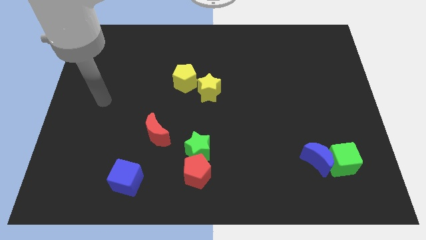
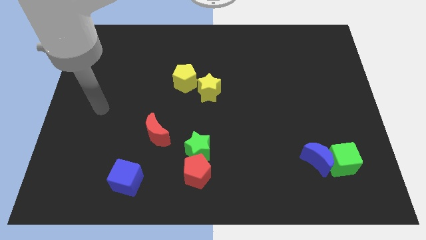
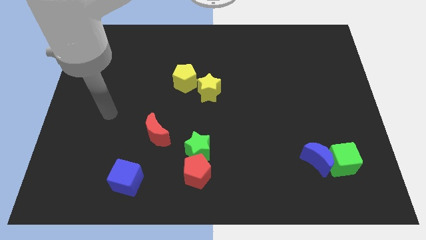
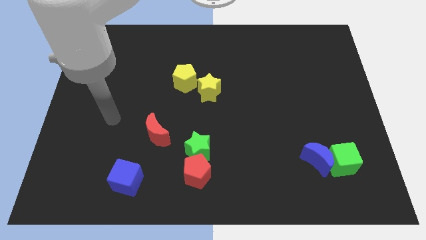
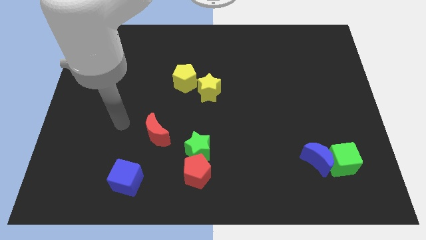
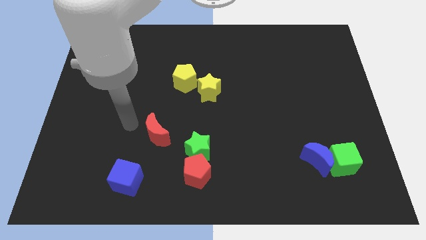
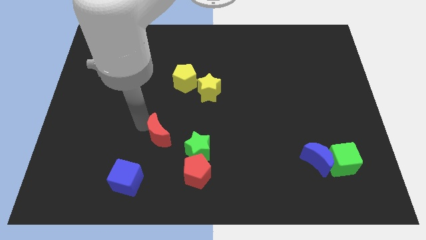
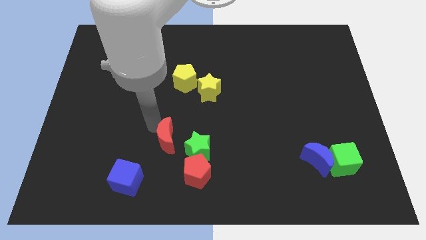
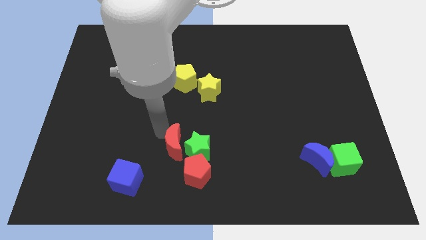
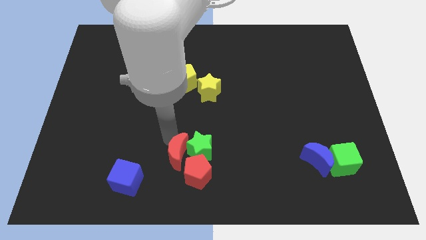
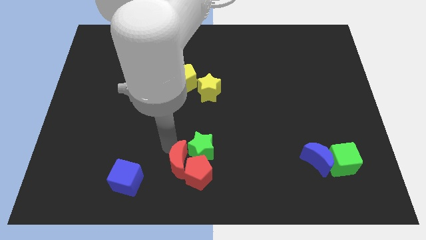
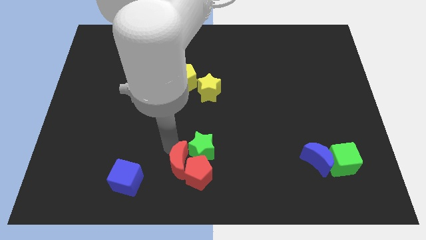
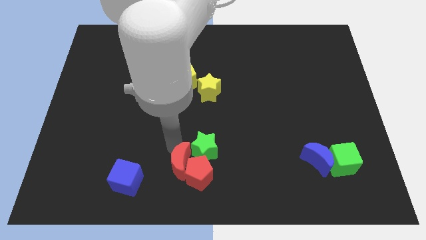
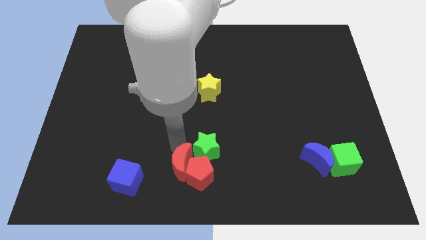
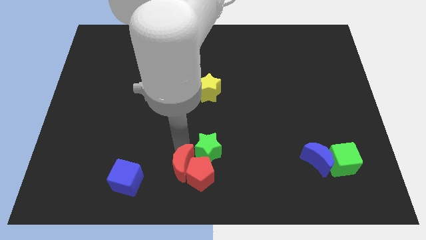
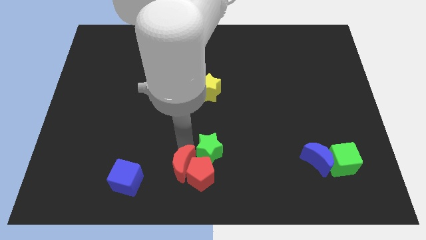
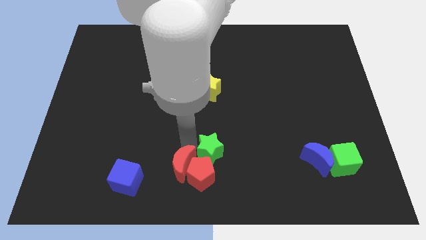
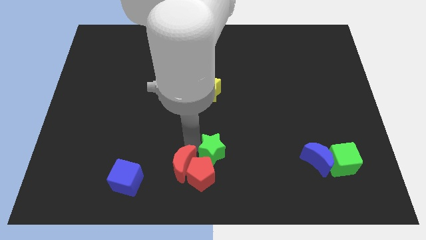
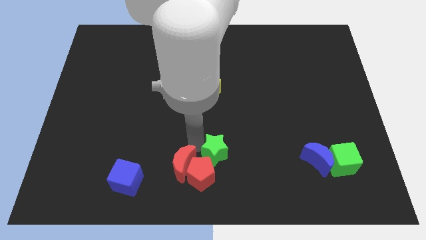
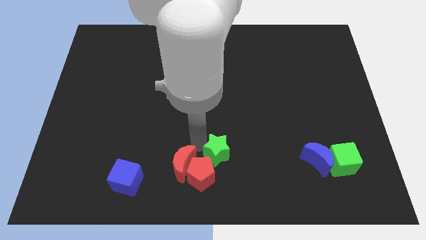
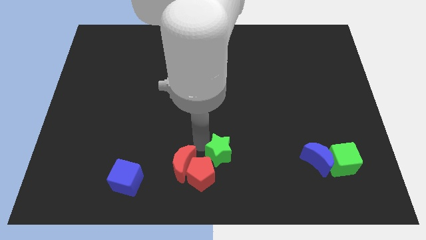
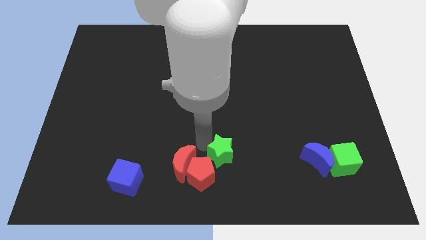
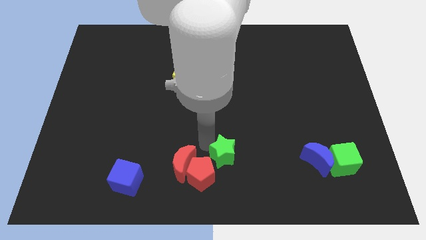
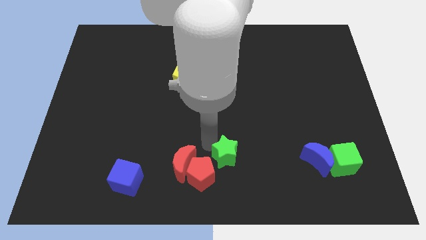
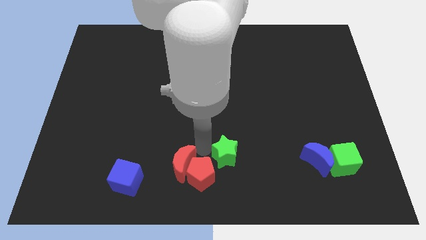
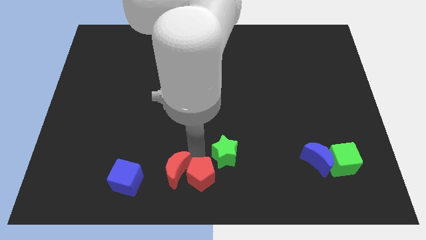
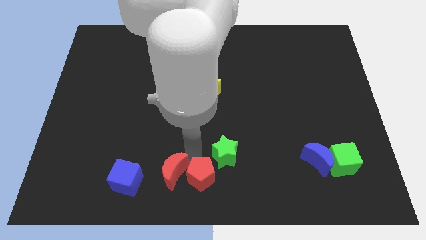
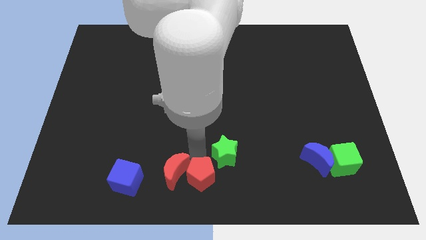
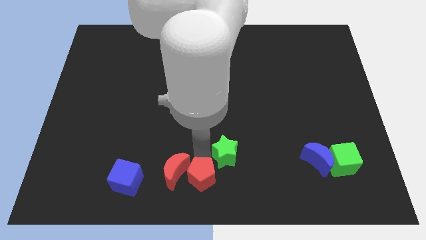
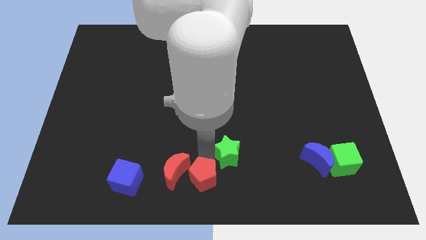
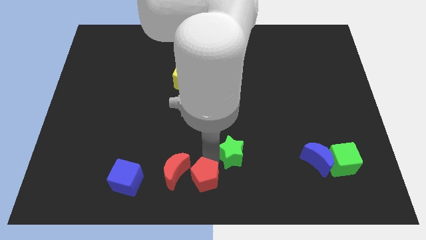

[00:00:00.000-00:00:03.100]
push the green star a bit to the right

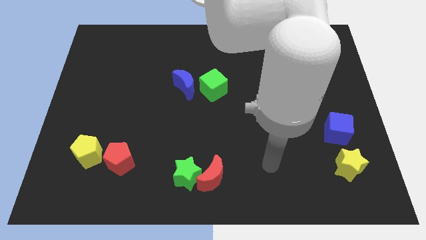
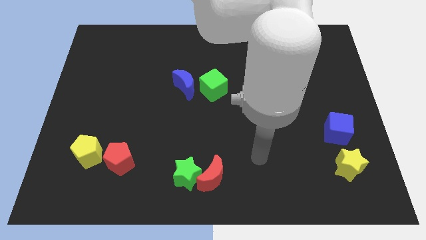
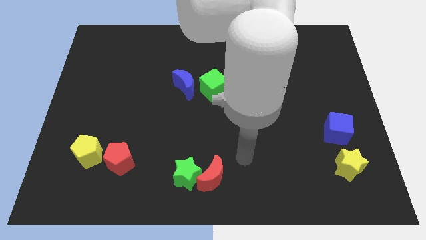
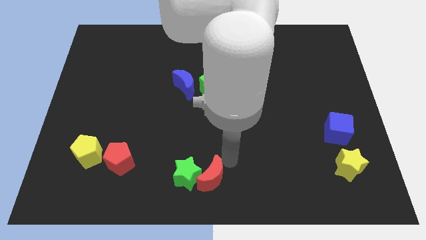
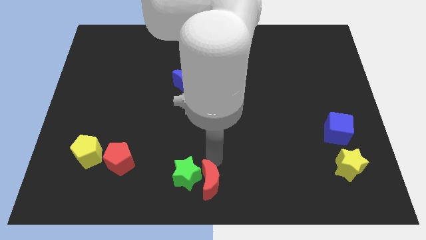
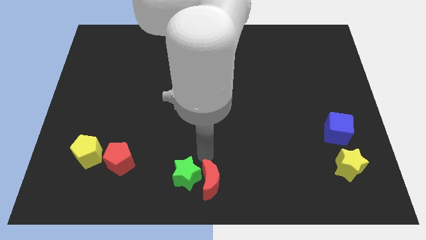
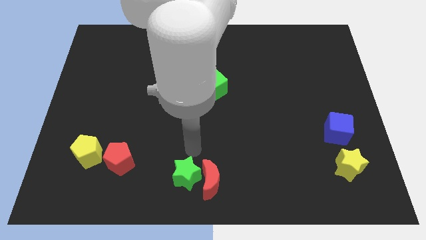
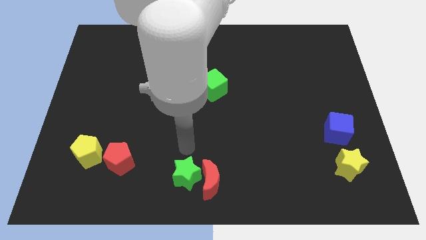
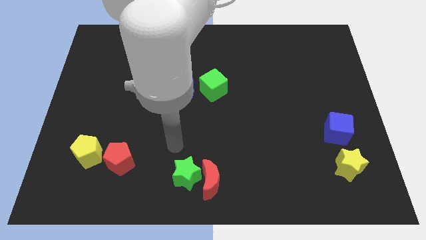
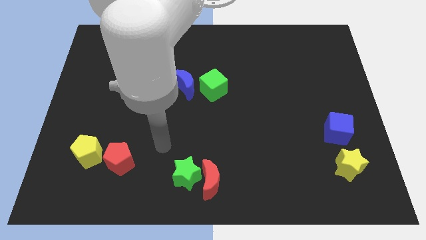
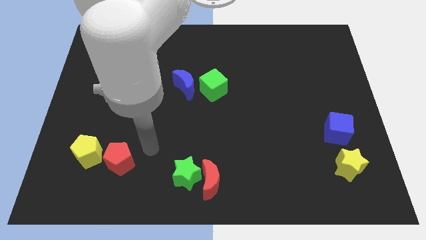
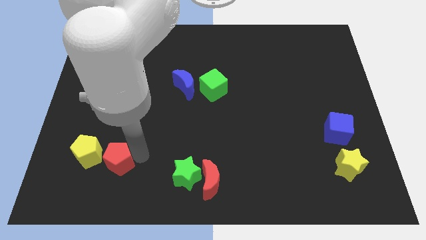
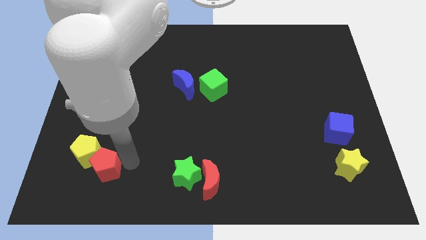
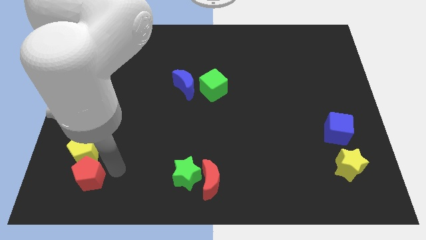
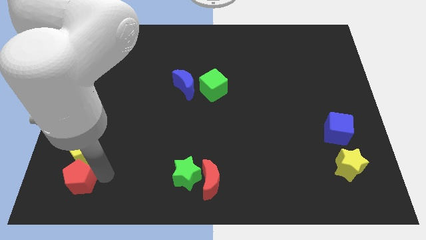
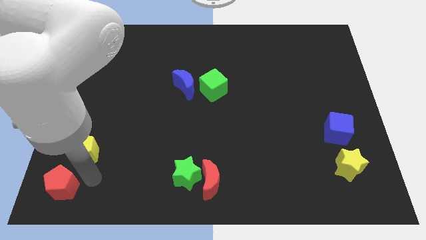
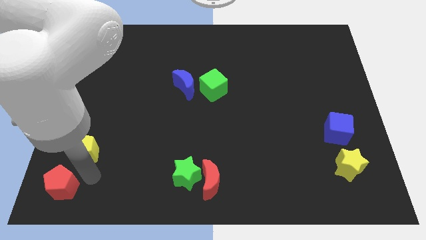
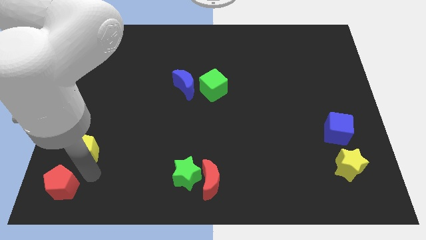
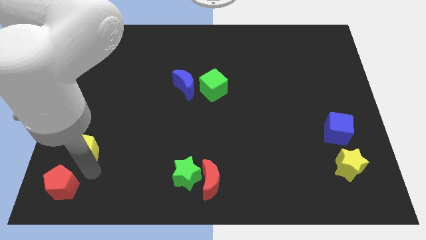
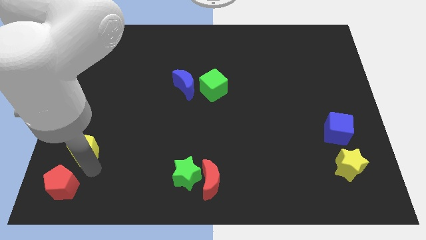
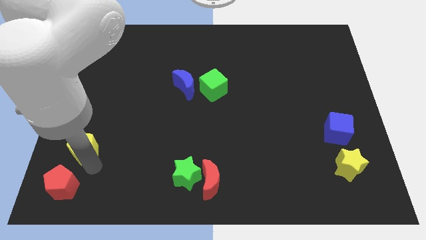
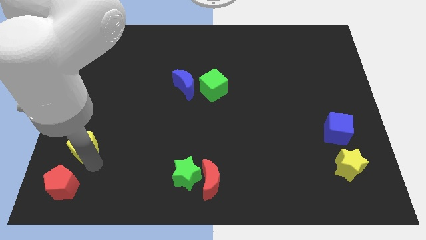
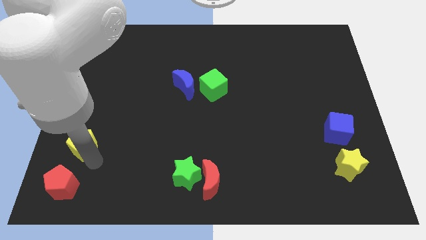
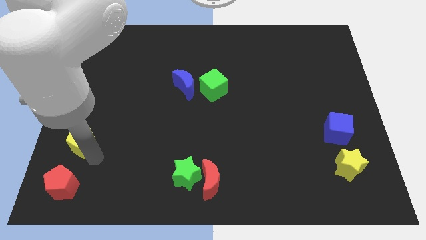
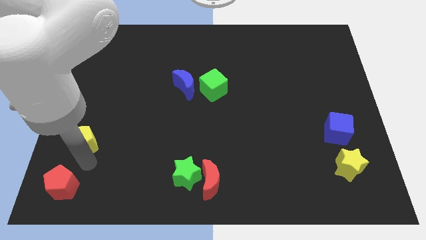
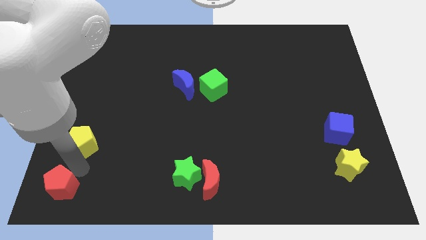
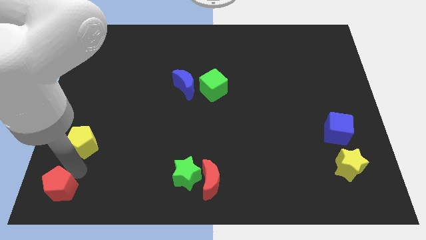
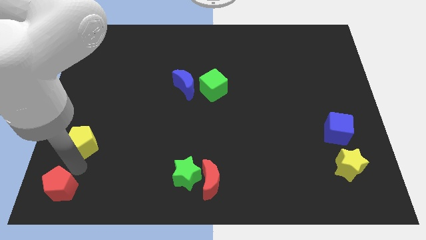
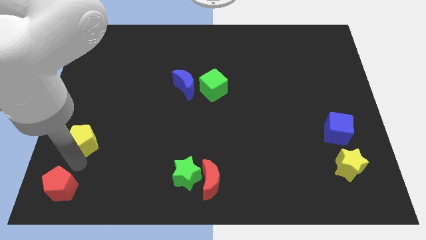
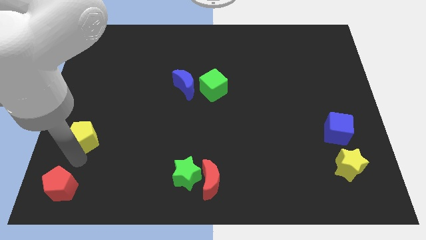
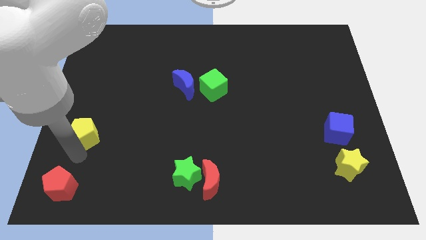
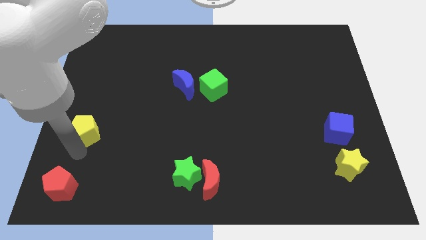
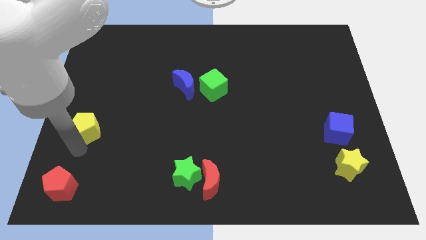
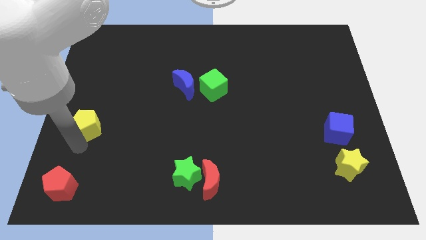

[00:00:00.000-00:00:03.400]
slide the yellow pentagon a little upwards

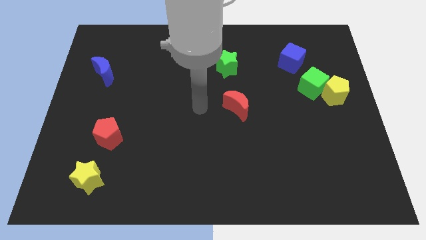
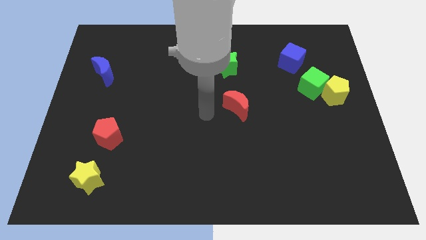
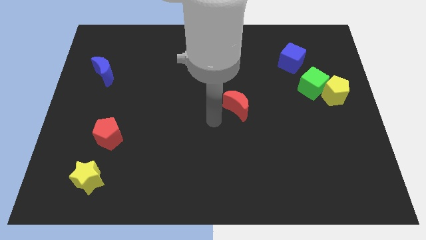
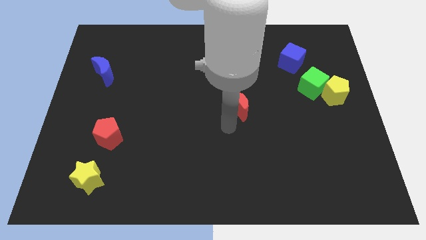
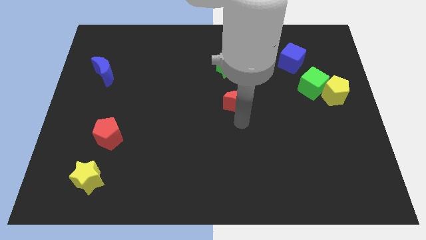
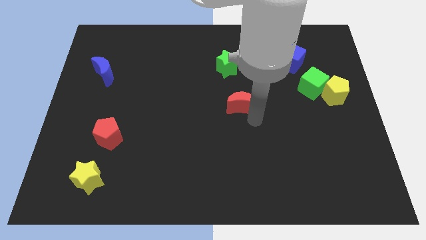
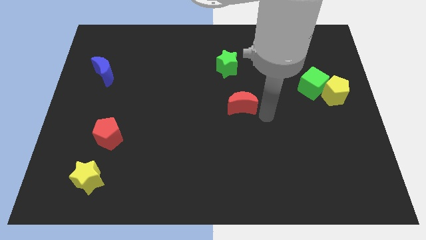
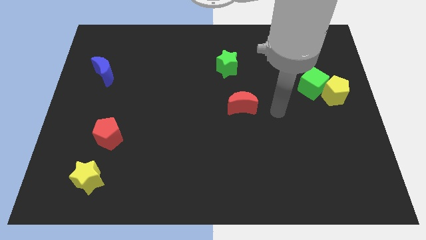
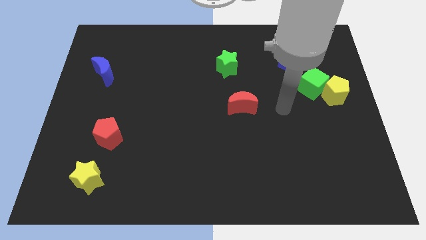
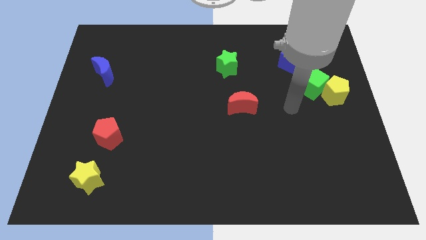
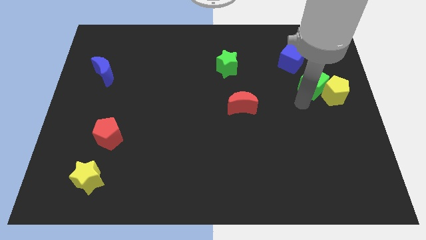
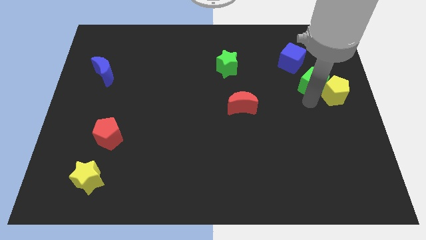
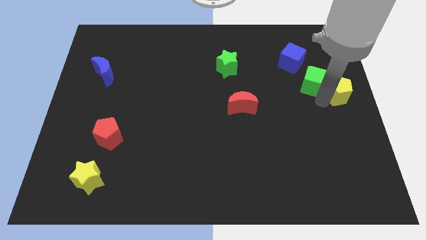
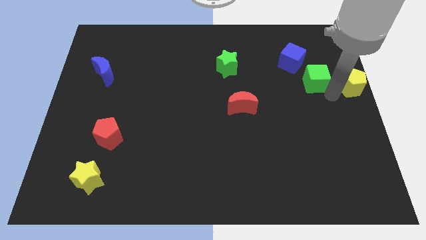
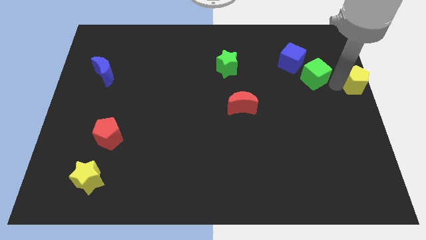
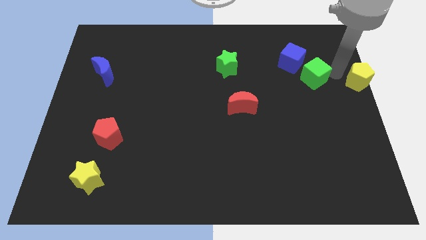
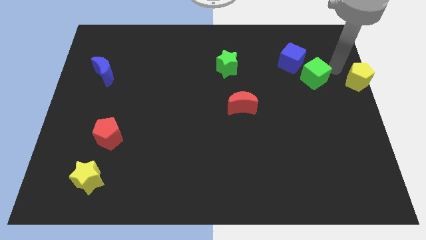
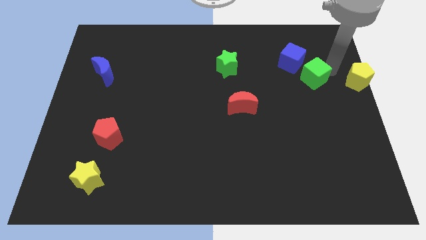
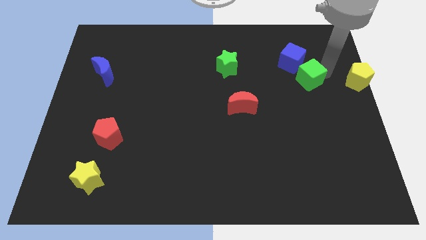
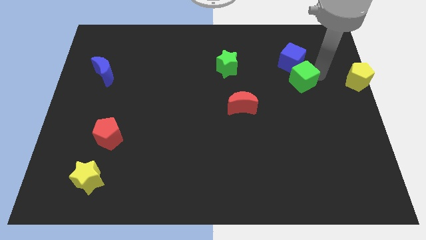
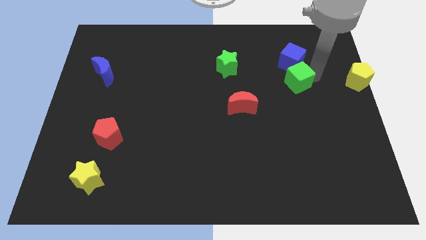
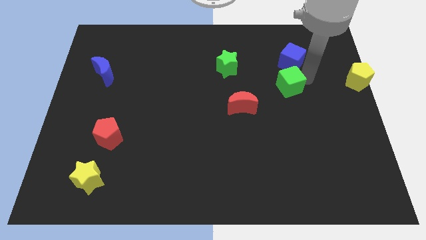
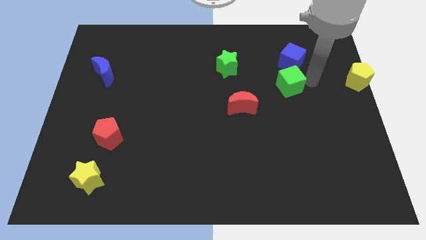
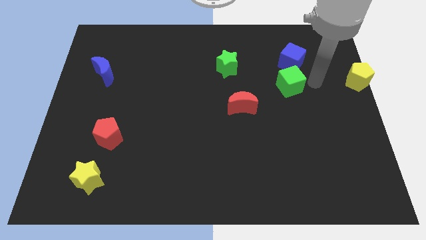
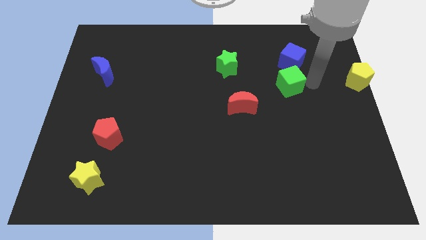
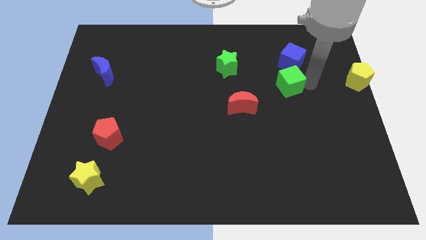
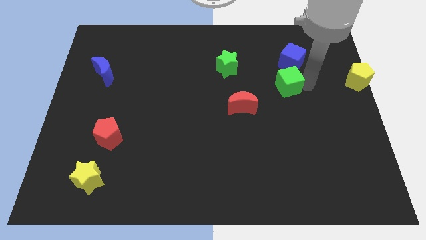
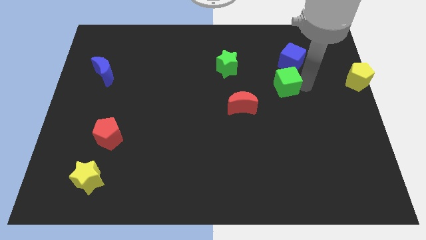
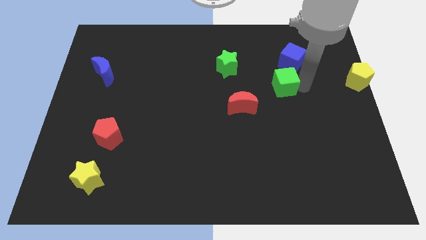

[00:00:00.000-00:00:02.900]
push the green cube left a little
